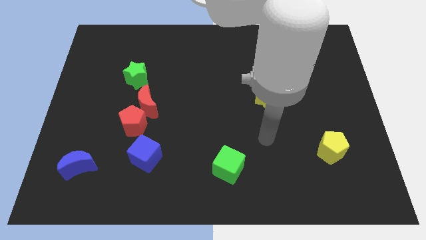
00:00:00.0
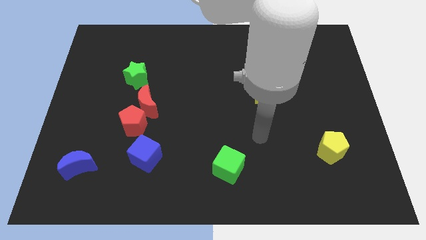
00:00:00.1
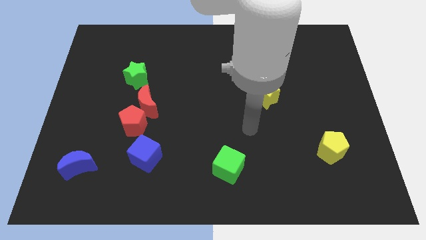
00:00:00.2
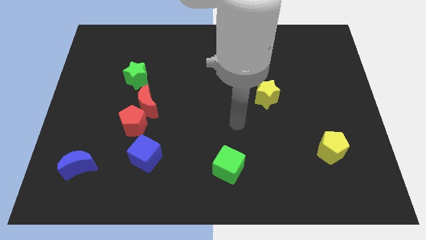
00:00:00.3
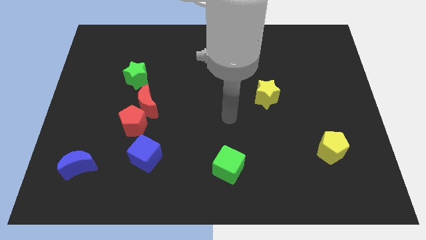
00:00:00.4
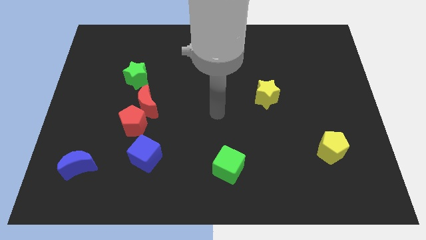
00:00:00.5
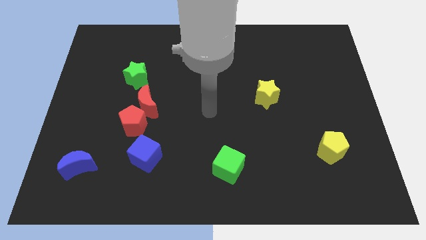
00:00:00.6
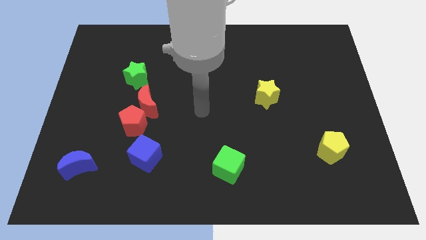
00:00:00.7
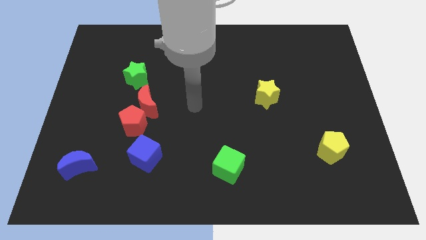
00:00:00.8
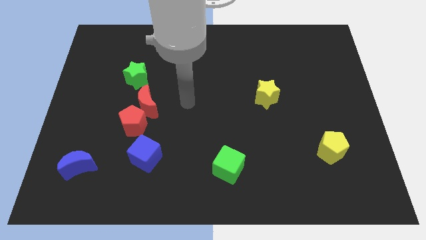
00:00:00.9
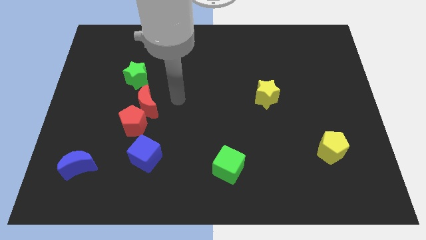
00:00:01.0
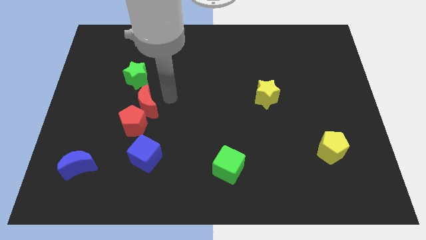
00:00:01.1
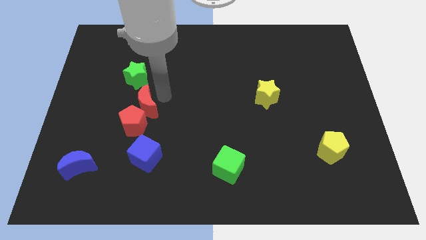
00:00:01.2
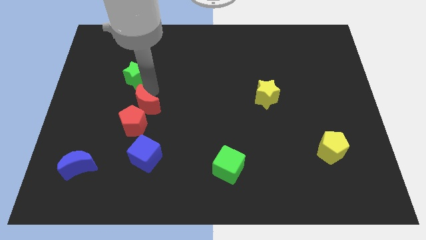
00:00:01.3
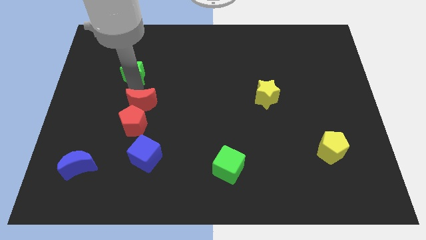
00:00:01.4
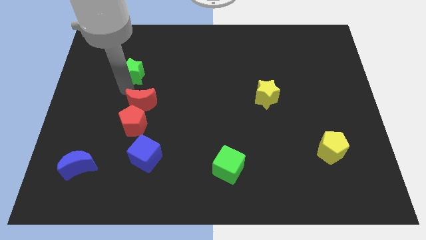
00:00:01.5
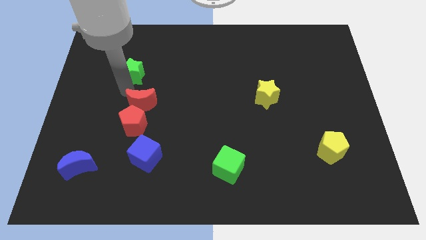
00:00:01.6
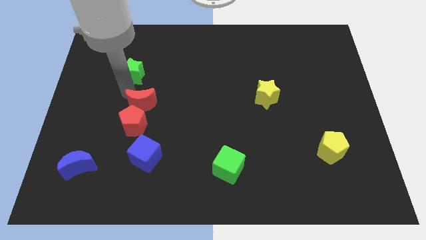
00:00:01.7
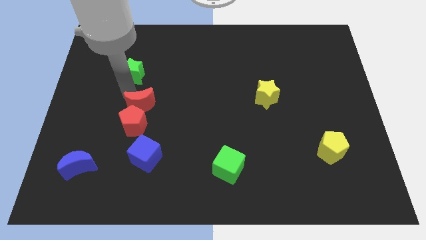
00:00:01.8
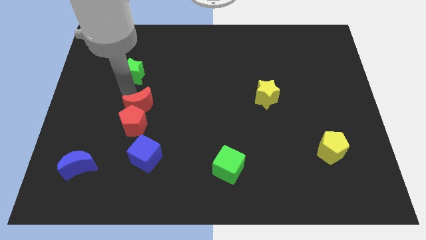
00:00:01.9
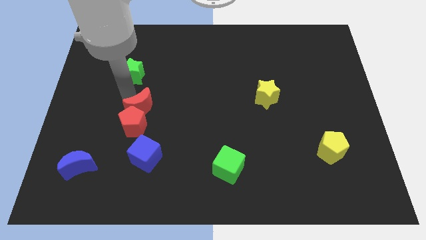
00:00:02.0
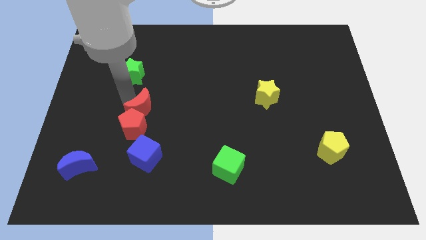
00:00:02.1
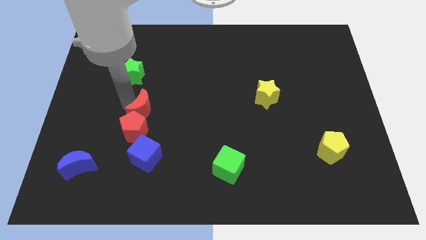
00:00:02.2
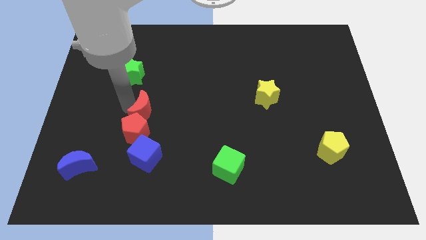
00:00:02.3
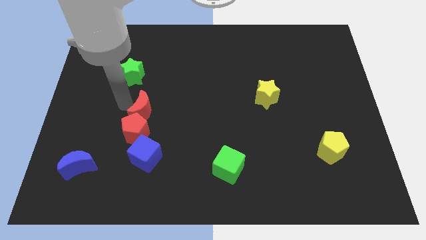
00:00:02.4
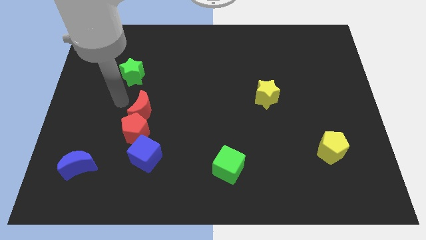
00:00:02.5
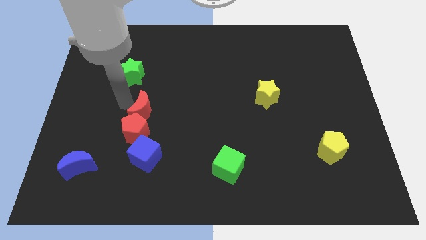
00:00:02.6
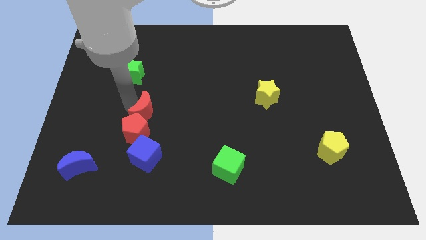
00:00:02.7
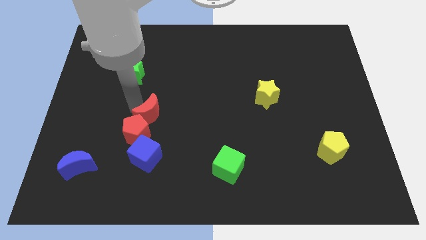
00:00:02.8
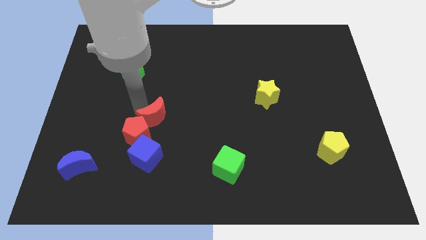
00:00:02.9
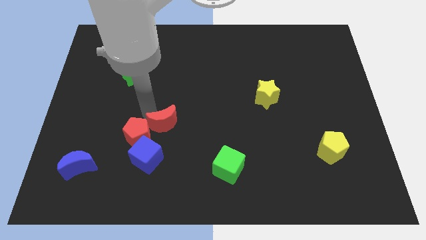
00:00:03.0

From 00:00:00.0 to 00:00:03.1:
slightly slide the red moon diagonally downwards and right

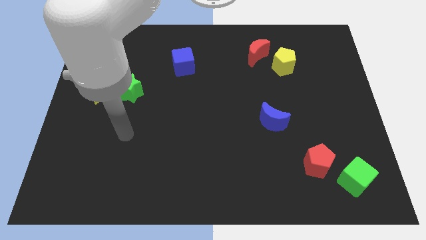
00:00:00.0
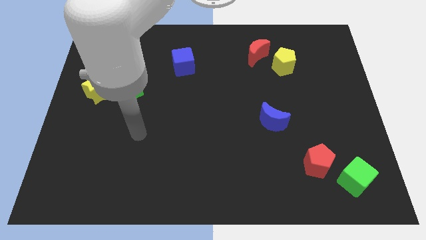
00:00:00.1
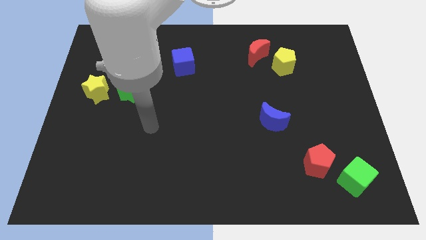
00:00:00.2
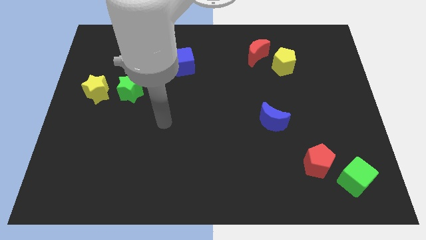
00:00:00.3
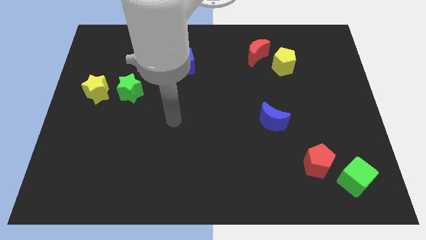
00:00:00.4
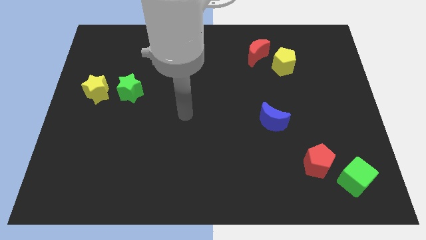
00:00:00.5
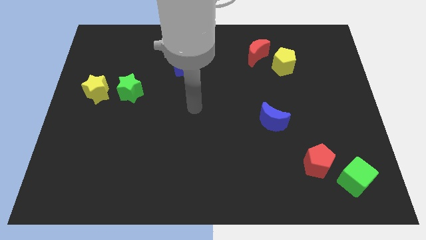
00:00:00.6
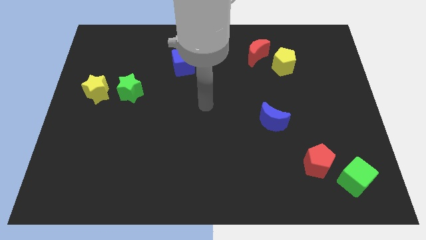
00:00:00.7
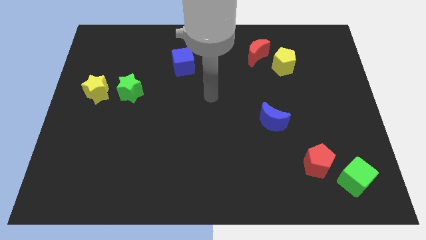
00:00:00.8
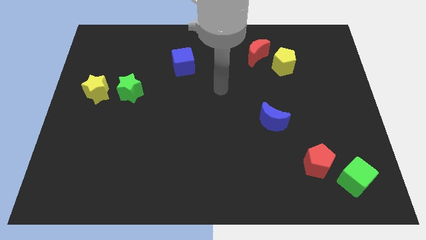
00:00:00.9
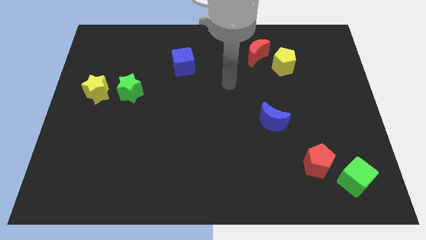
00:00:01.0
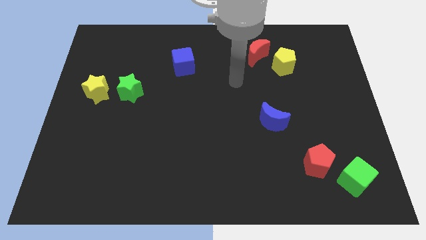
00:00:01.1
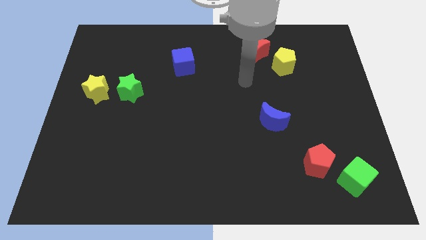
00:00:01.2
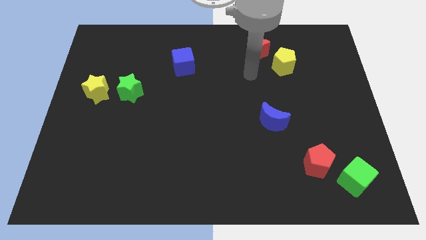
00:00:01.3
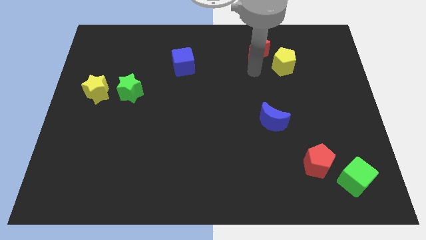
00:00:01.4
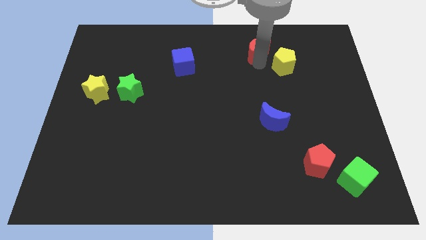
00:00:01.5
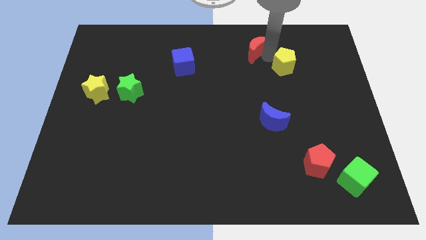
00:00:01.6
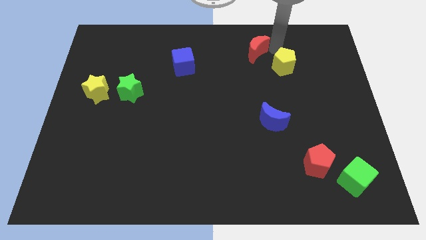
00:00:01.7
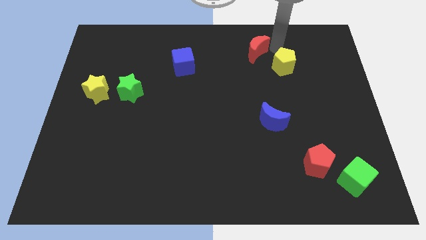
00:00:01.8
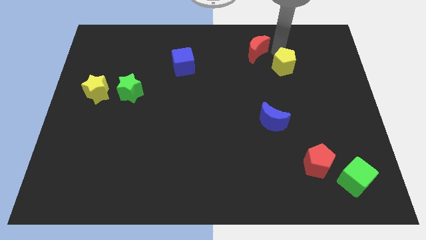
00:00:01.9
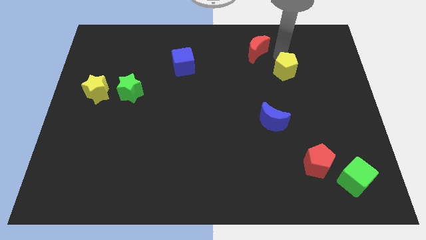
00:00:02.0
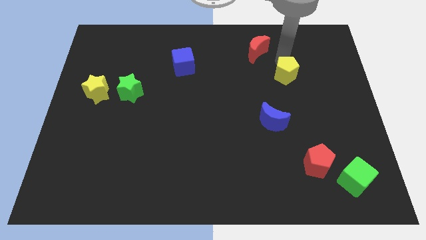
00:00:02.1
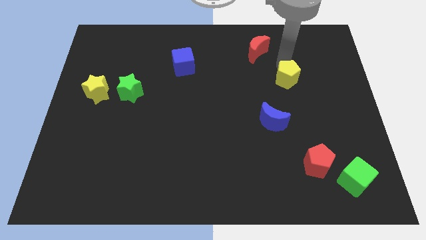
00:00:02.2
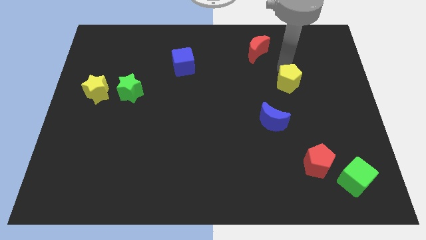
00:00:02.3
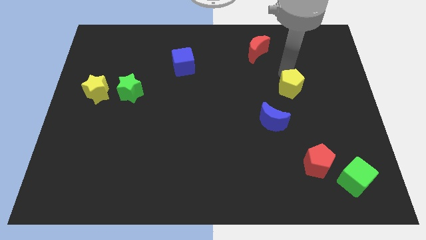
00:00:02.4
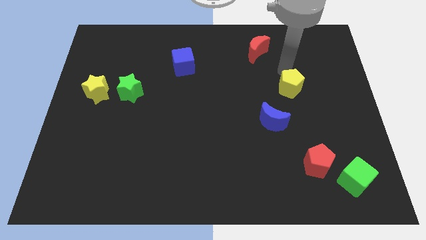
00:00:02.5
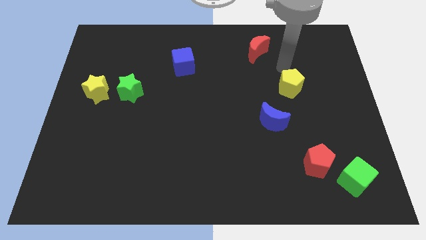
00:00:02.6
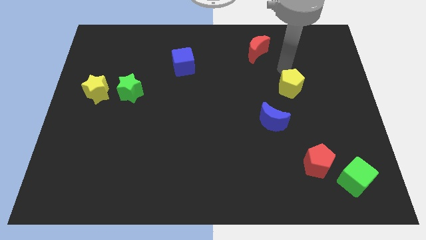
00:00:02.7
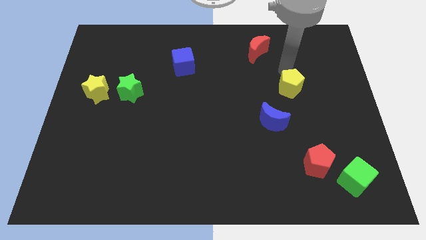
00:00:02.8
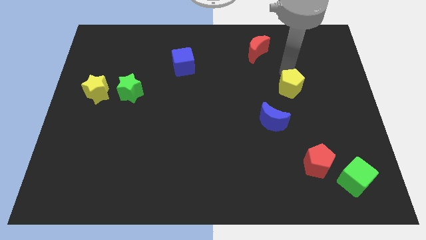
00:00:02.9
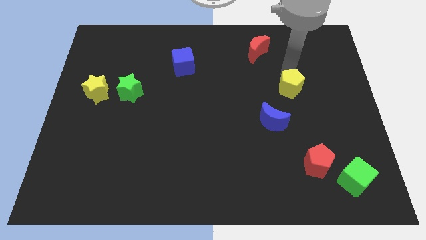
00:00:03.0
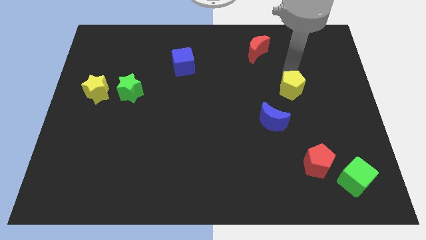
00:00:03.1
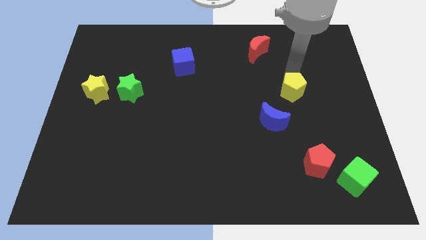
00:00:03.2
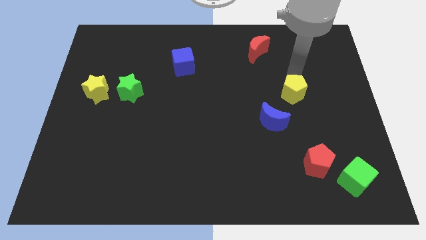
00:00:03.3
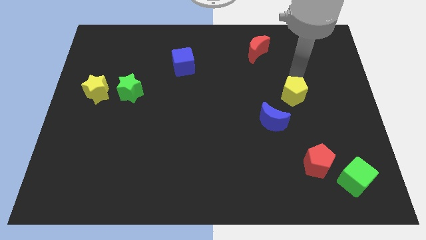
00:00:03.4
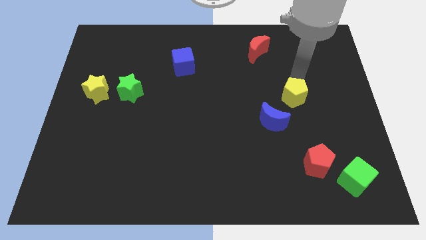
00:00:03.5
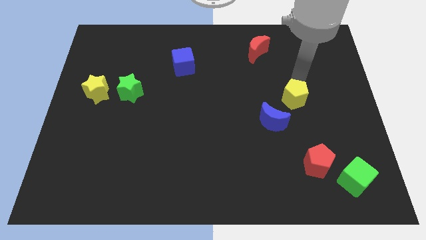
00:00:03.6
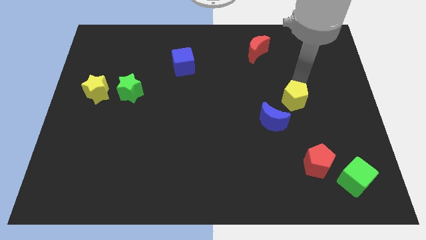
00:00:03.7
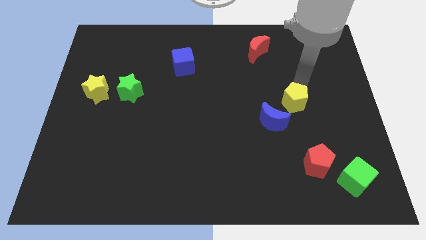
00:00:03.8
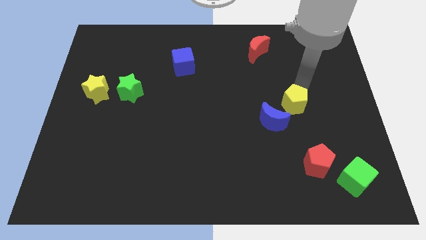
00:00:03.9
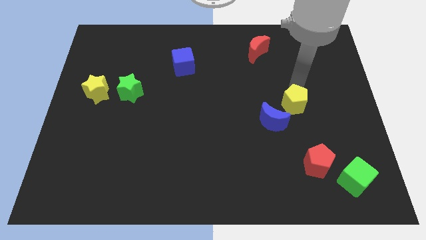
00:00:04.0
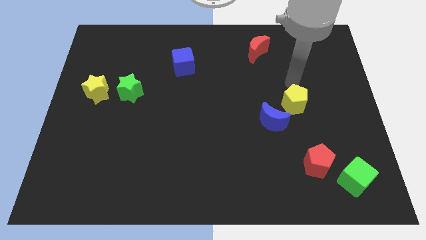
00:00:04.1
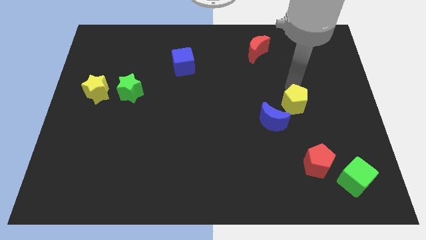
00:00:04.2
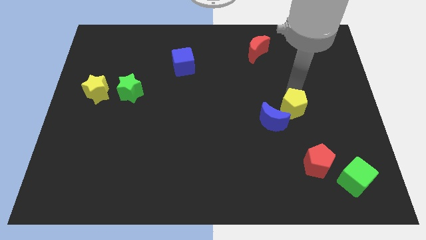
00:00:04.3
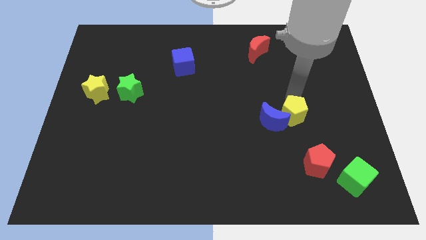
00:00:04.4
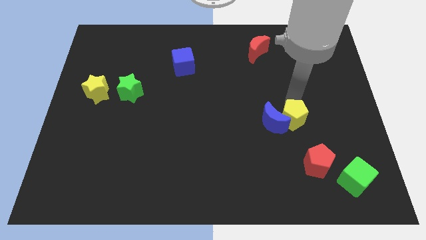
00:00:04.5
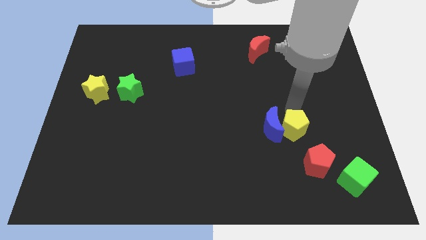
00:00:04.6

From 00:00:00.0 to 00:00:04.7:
slide the yellow pentagon down

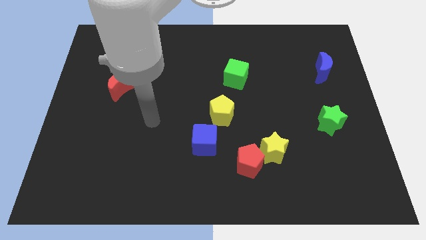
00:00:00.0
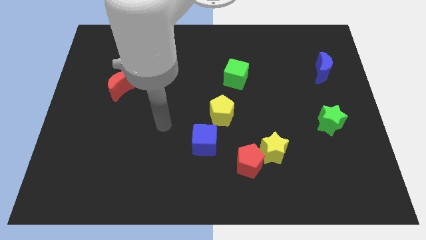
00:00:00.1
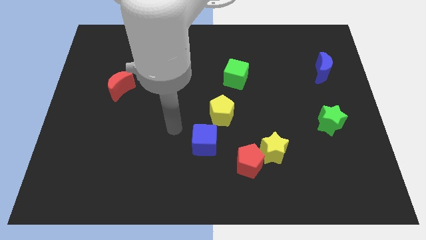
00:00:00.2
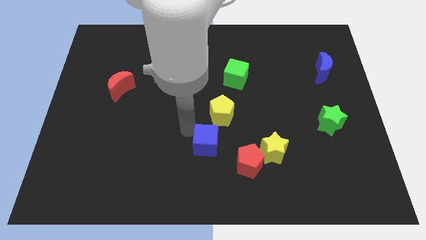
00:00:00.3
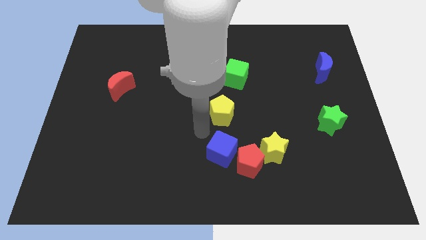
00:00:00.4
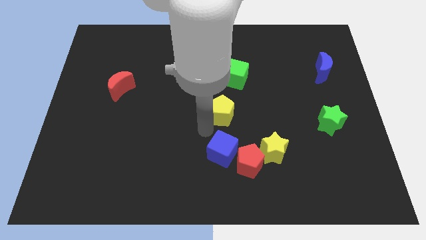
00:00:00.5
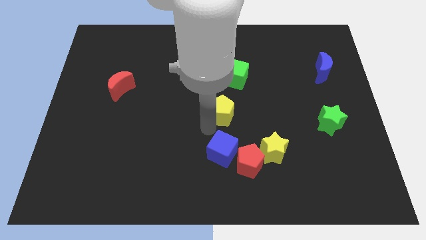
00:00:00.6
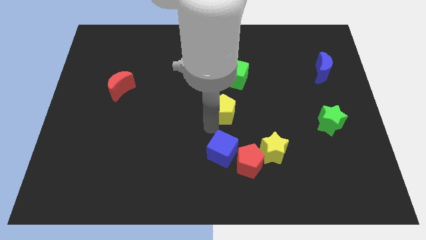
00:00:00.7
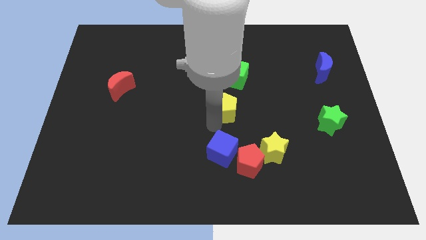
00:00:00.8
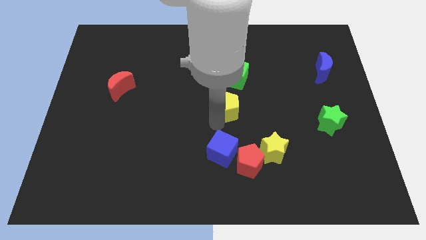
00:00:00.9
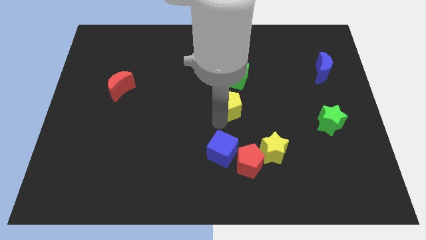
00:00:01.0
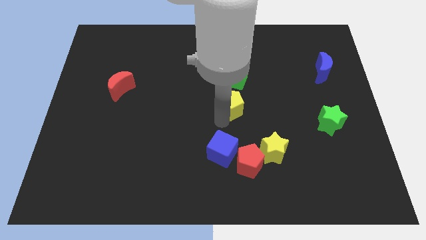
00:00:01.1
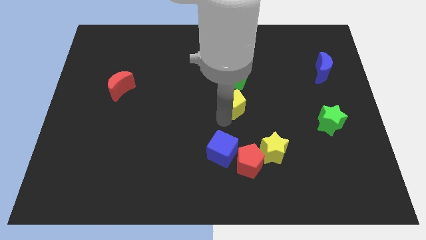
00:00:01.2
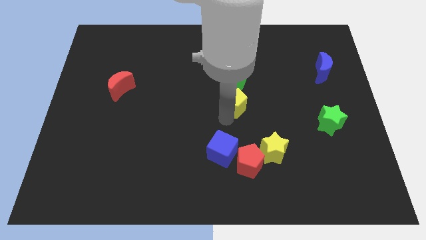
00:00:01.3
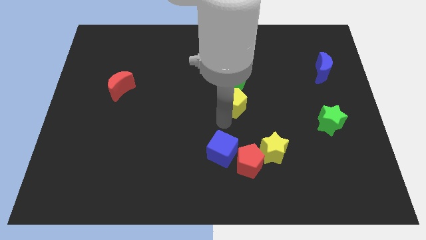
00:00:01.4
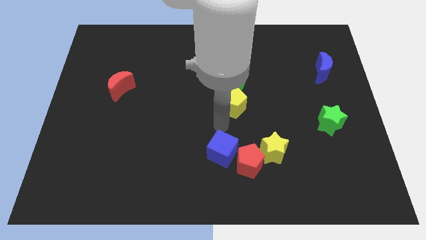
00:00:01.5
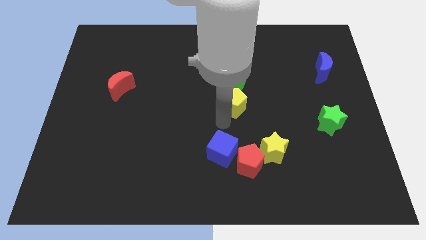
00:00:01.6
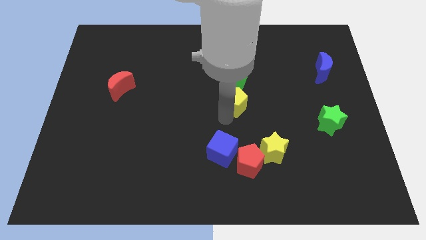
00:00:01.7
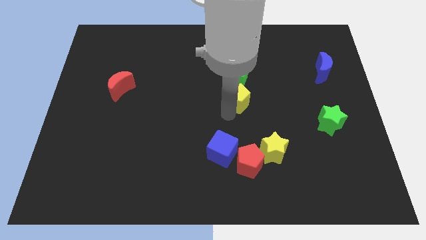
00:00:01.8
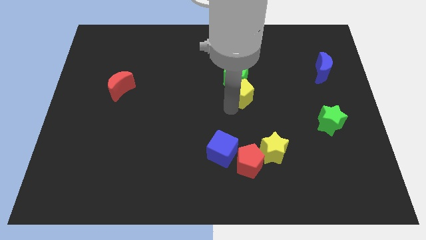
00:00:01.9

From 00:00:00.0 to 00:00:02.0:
slide the yellow pentagon a little bit up and to the right diagonally
